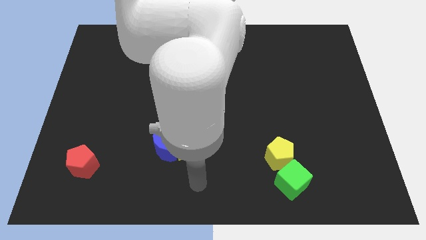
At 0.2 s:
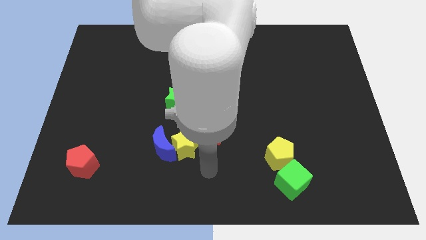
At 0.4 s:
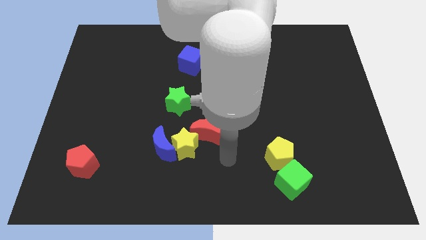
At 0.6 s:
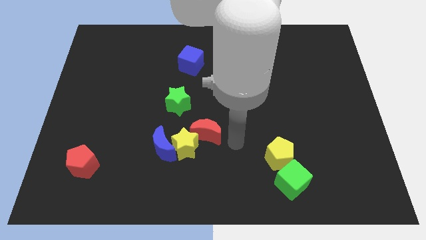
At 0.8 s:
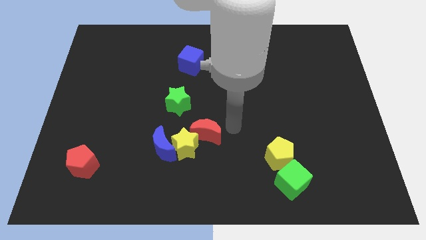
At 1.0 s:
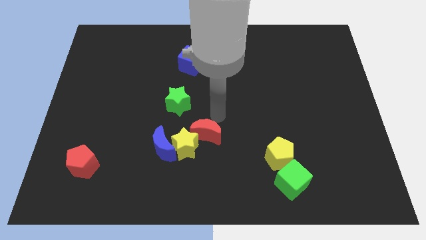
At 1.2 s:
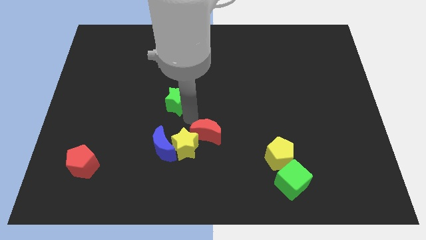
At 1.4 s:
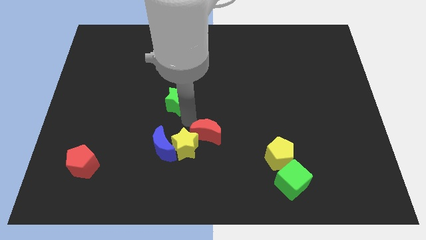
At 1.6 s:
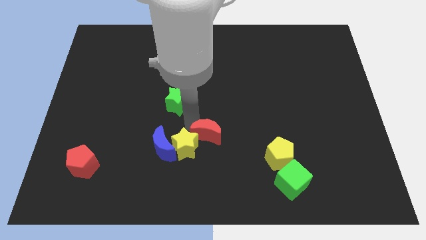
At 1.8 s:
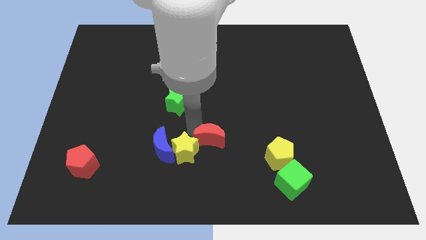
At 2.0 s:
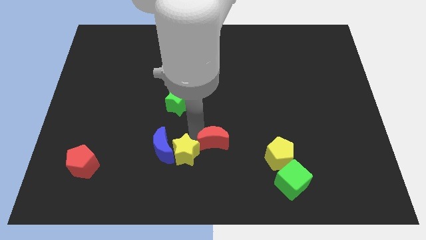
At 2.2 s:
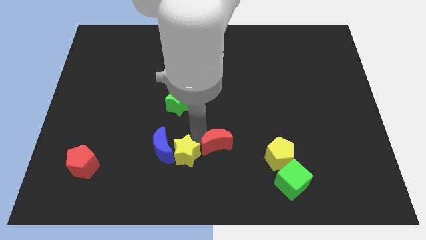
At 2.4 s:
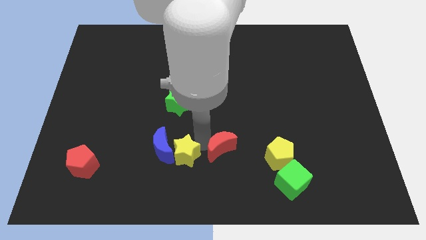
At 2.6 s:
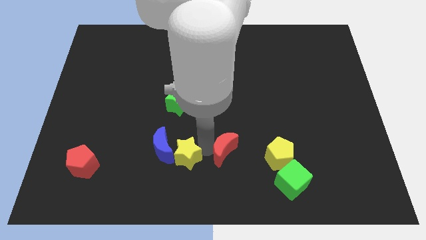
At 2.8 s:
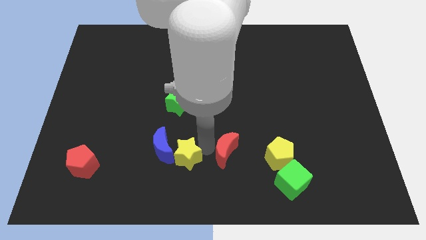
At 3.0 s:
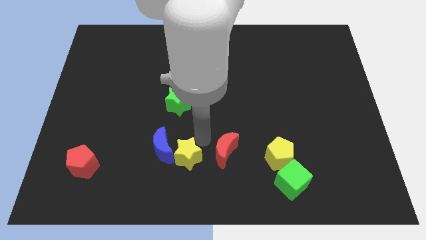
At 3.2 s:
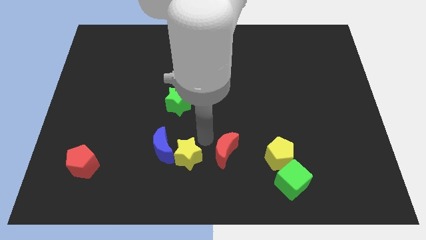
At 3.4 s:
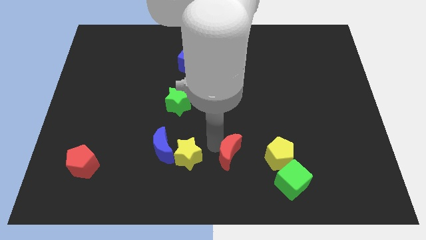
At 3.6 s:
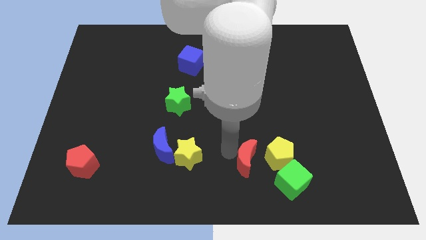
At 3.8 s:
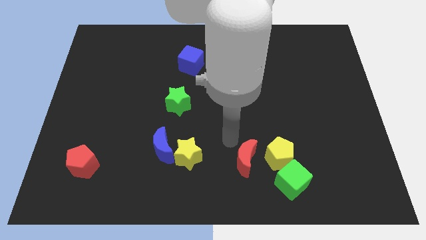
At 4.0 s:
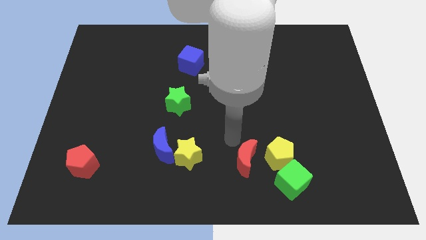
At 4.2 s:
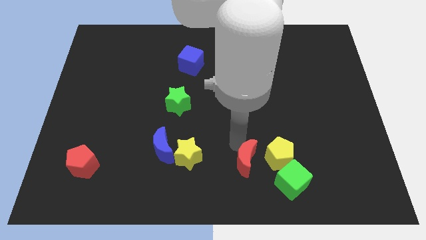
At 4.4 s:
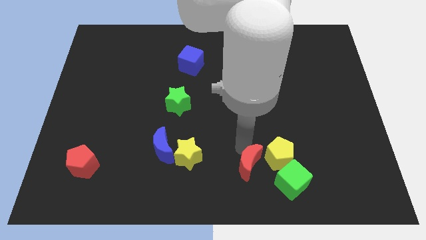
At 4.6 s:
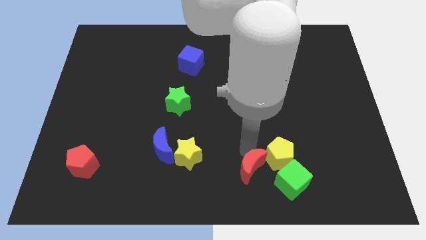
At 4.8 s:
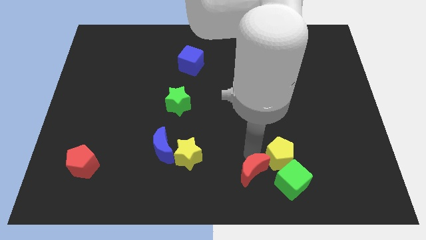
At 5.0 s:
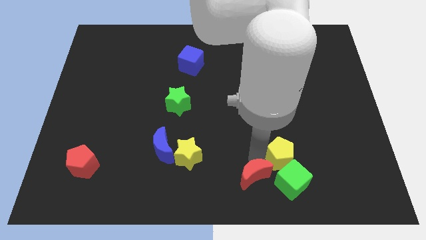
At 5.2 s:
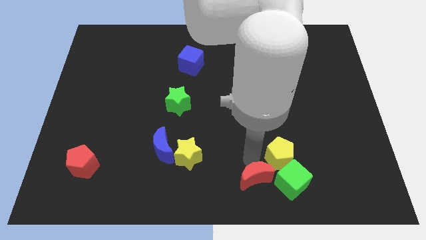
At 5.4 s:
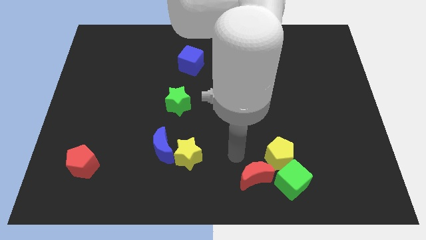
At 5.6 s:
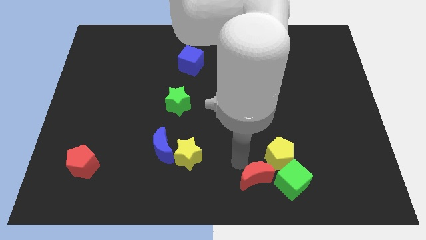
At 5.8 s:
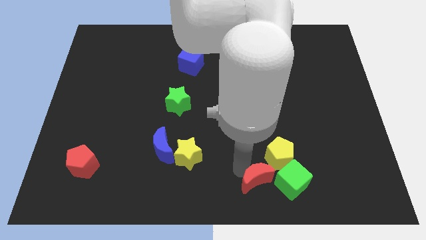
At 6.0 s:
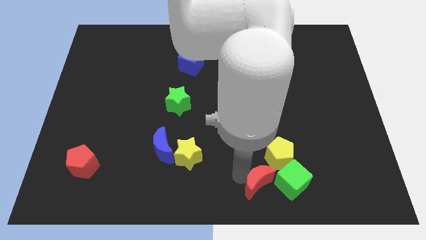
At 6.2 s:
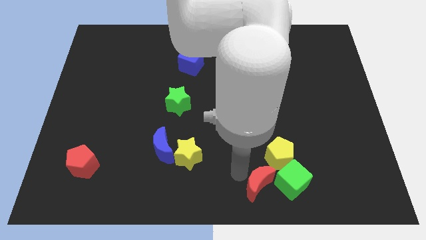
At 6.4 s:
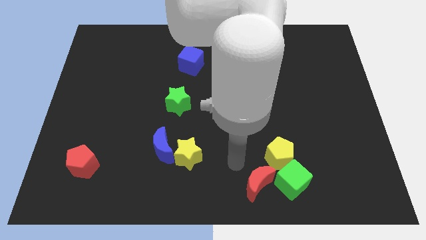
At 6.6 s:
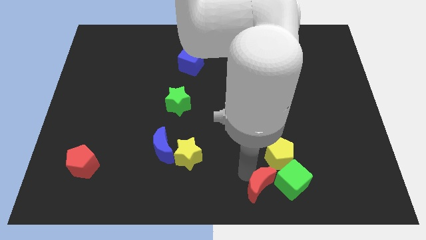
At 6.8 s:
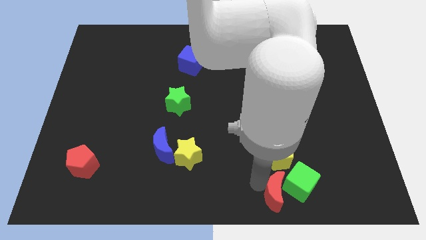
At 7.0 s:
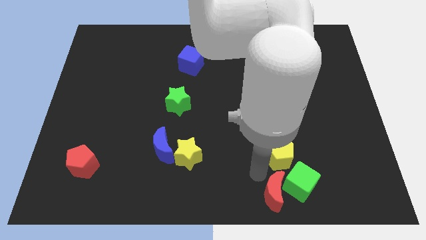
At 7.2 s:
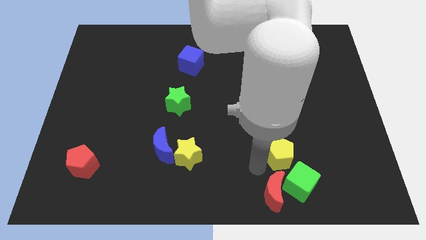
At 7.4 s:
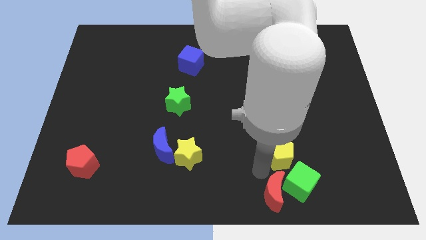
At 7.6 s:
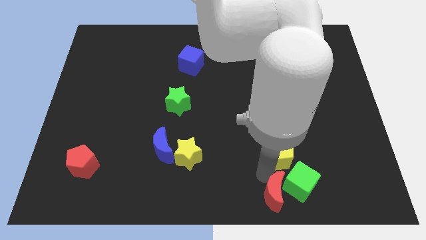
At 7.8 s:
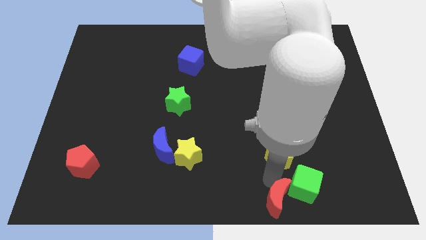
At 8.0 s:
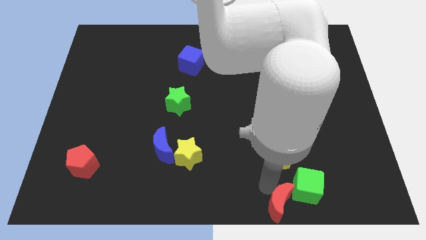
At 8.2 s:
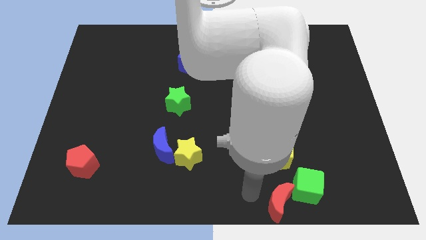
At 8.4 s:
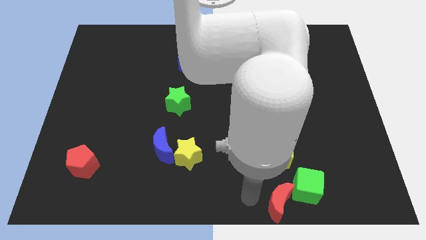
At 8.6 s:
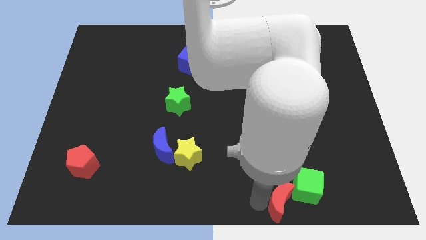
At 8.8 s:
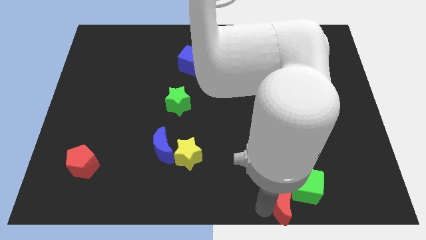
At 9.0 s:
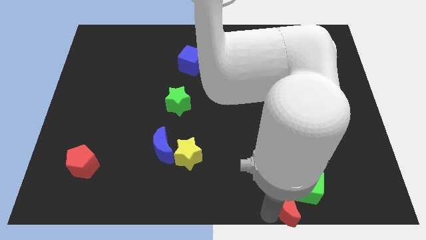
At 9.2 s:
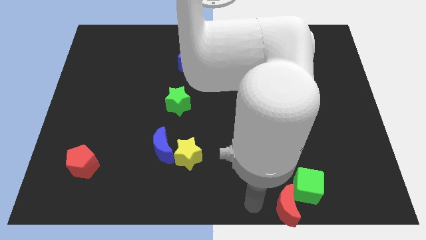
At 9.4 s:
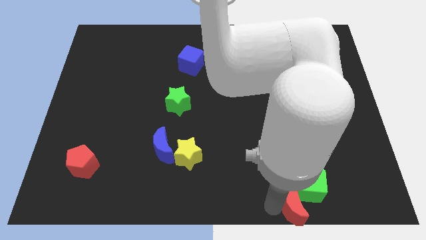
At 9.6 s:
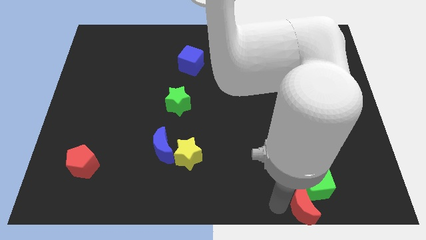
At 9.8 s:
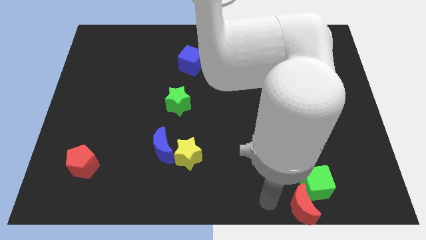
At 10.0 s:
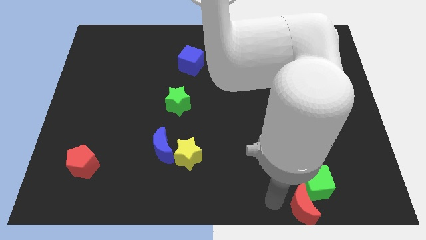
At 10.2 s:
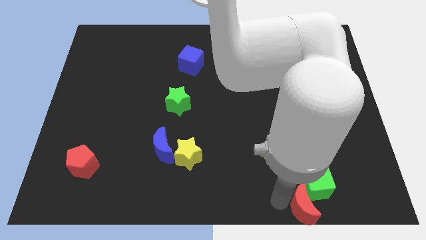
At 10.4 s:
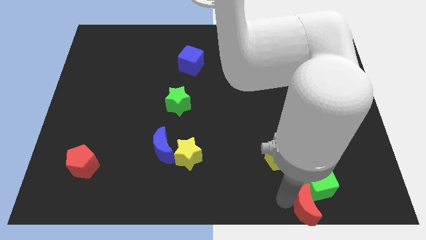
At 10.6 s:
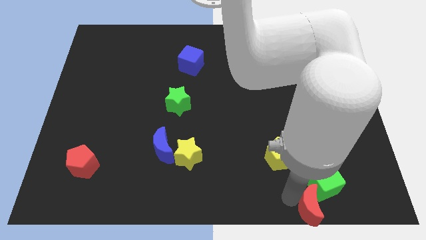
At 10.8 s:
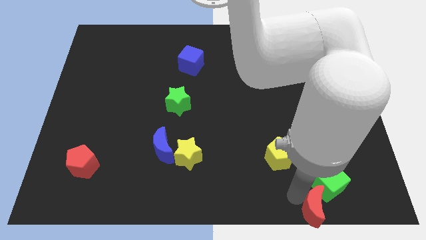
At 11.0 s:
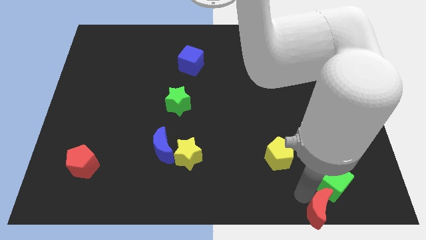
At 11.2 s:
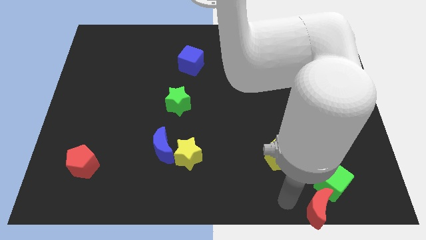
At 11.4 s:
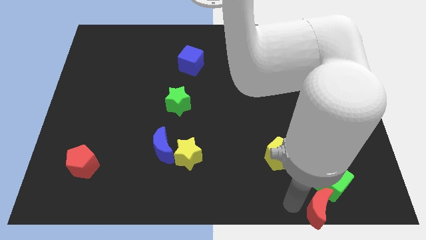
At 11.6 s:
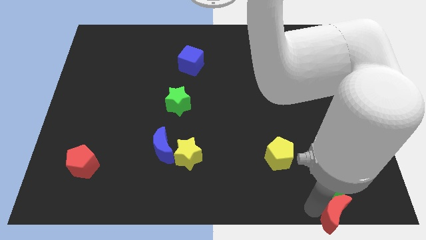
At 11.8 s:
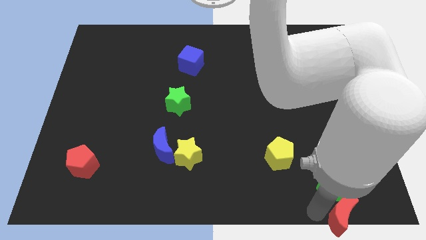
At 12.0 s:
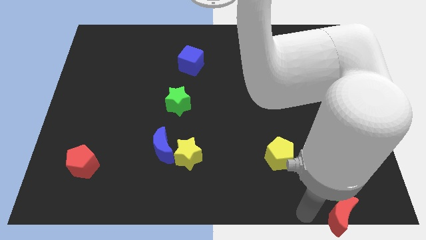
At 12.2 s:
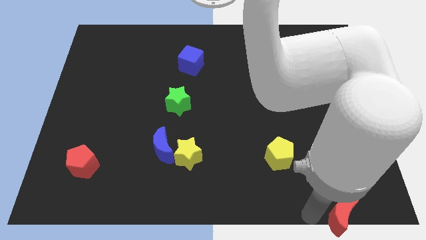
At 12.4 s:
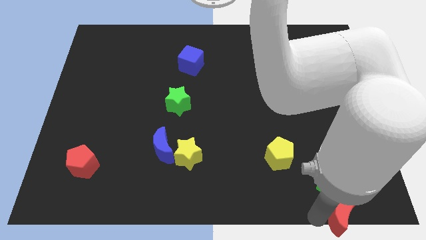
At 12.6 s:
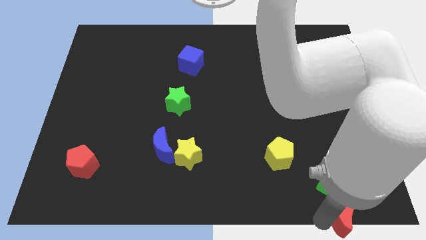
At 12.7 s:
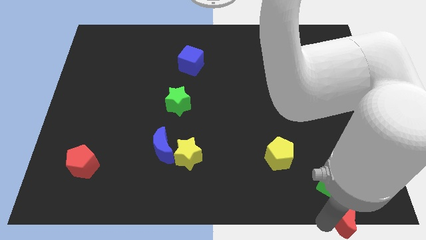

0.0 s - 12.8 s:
move the red moon to the lower right corner
